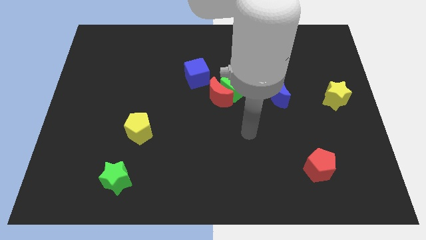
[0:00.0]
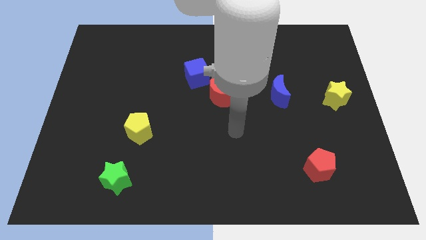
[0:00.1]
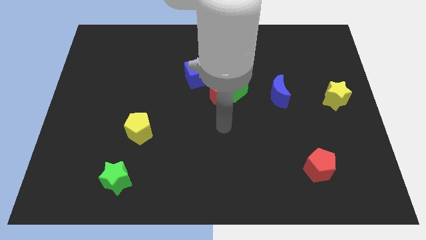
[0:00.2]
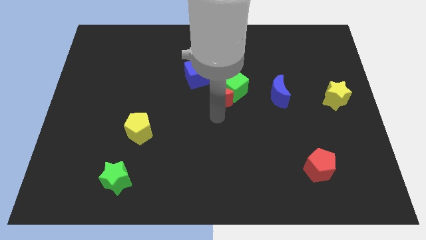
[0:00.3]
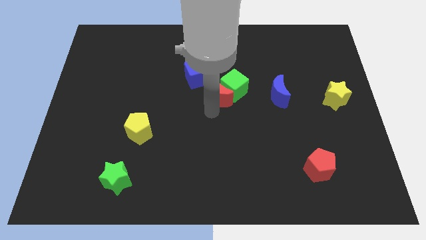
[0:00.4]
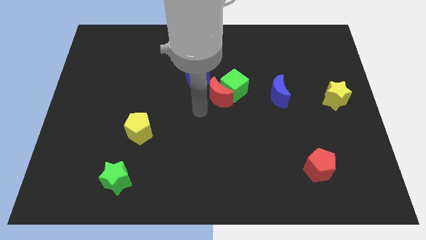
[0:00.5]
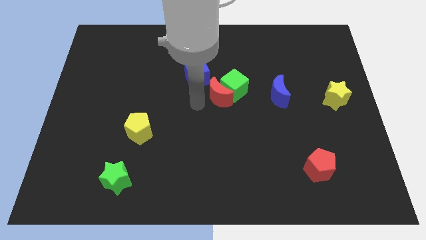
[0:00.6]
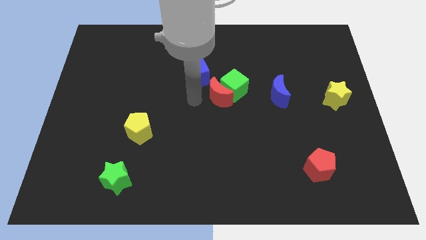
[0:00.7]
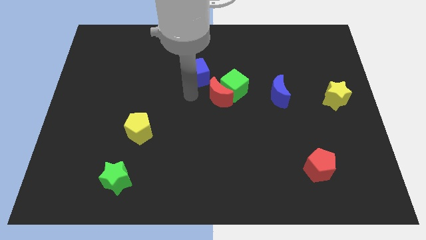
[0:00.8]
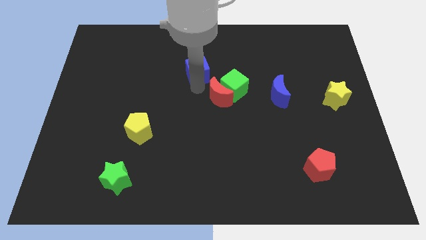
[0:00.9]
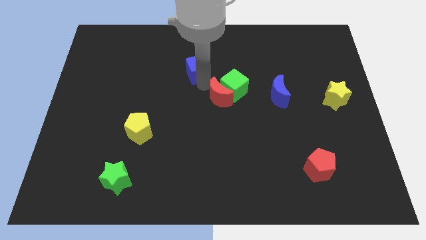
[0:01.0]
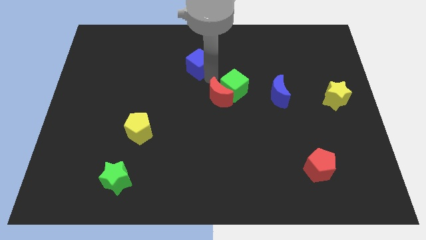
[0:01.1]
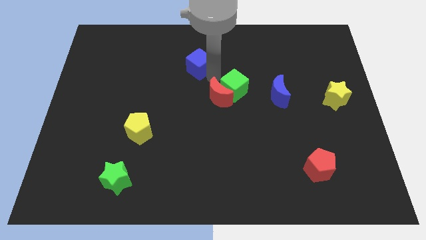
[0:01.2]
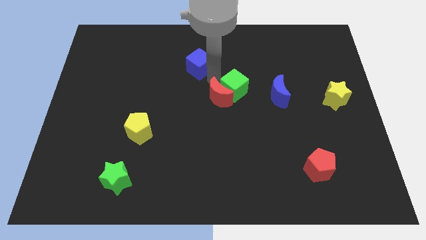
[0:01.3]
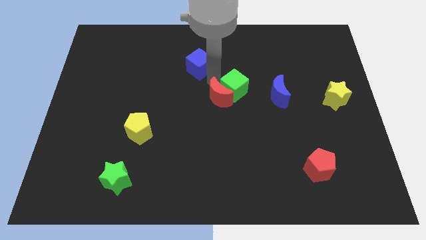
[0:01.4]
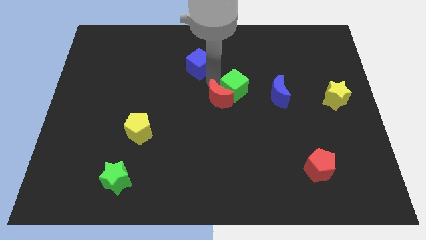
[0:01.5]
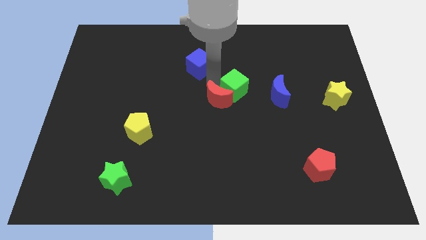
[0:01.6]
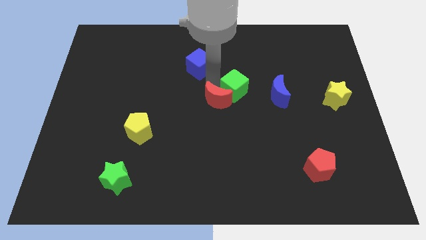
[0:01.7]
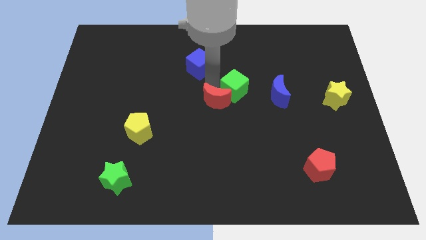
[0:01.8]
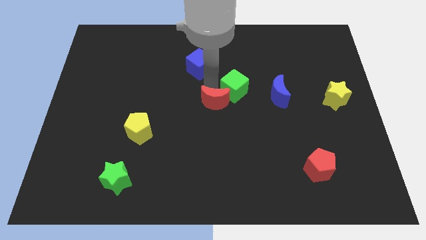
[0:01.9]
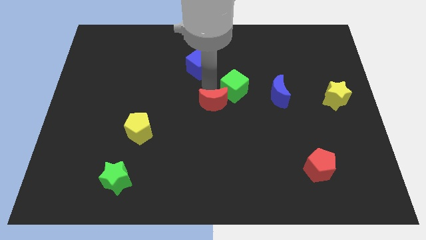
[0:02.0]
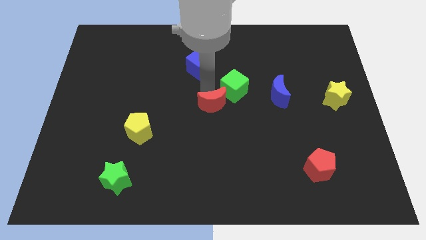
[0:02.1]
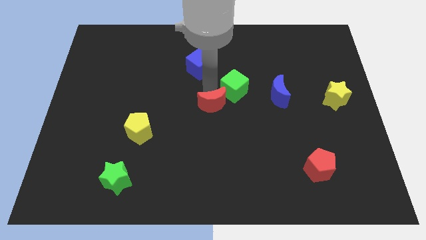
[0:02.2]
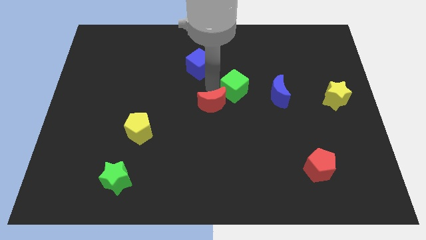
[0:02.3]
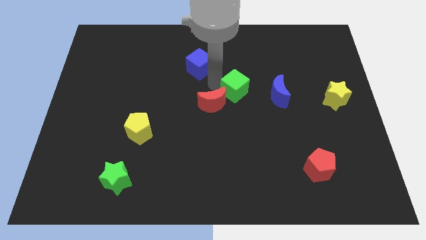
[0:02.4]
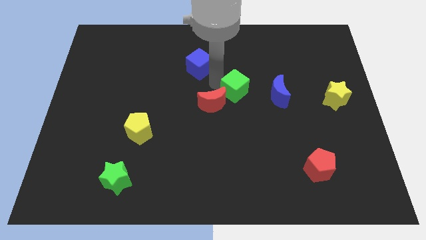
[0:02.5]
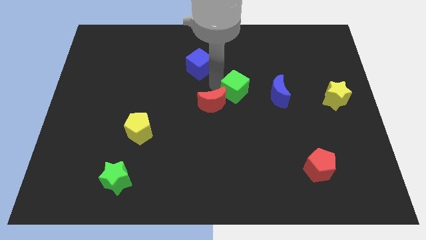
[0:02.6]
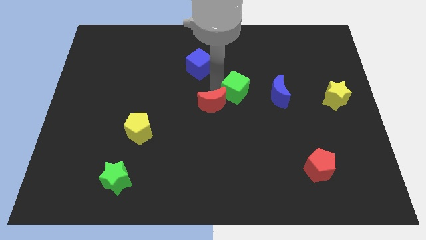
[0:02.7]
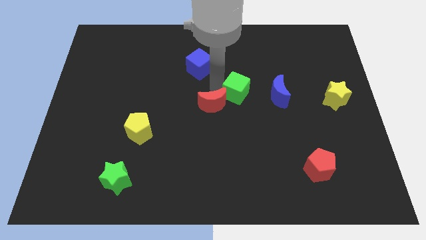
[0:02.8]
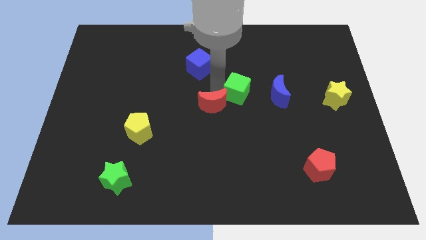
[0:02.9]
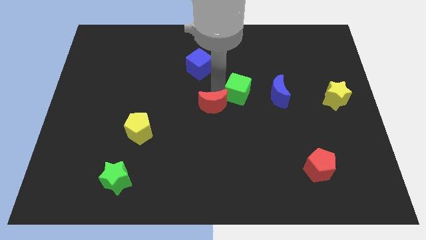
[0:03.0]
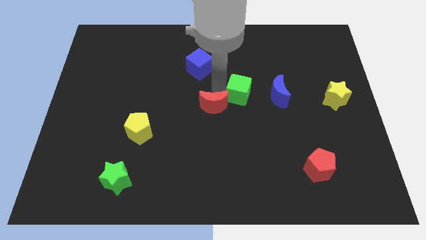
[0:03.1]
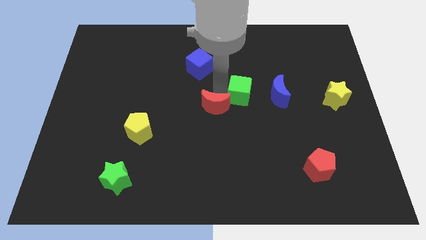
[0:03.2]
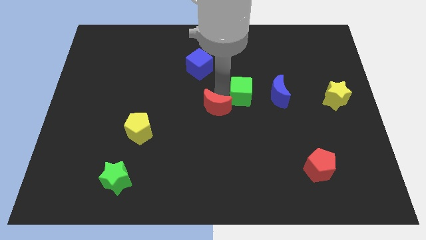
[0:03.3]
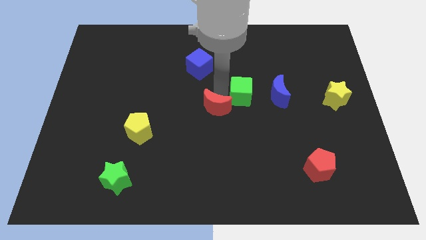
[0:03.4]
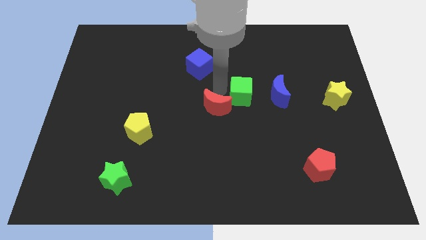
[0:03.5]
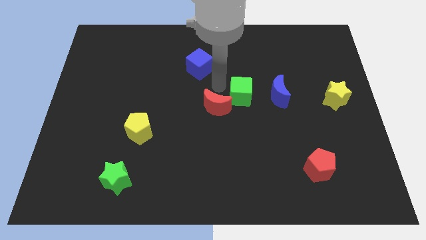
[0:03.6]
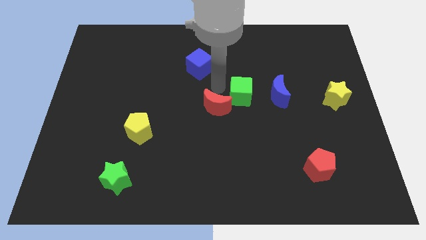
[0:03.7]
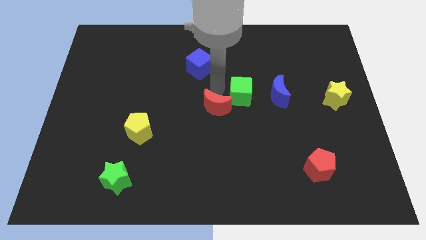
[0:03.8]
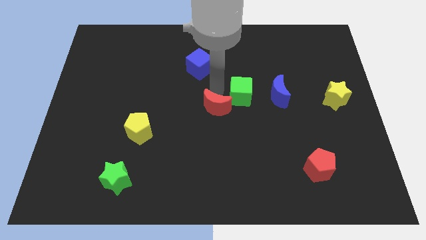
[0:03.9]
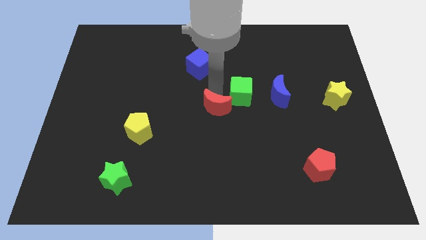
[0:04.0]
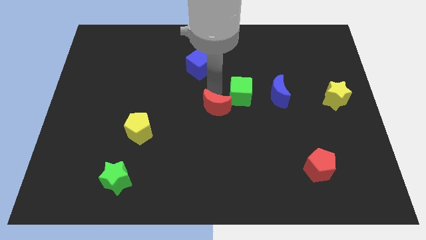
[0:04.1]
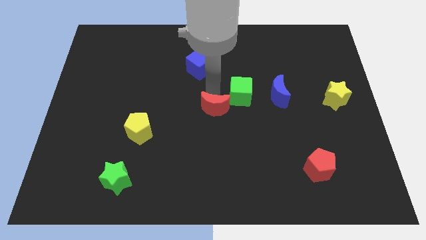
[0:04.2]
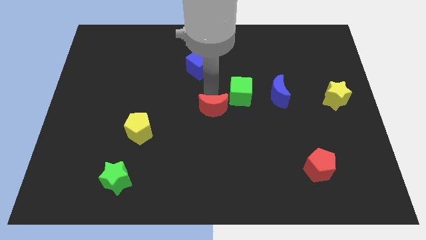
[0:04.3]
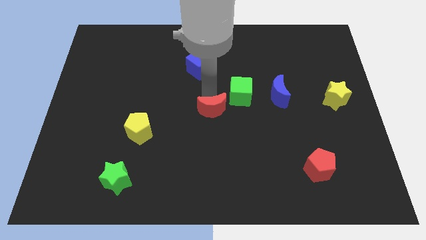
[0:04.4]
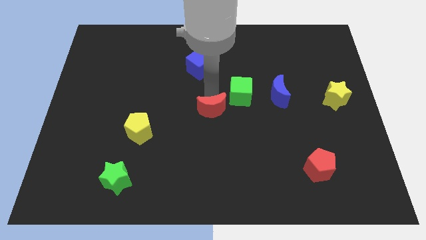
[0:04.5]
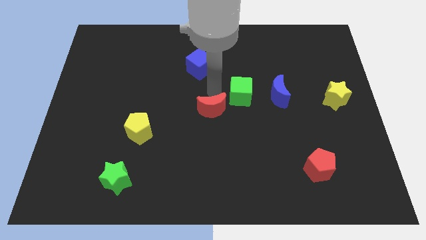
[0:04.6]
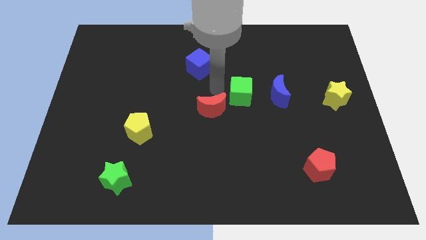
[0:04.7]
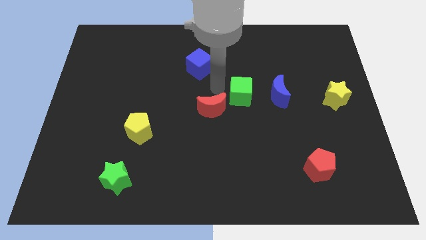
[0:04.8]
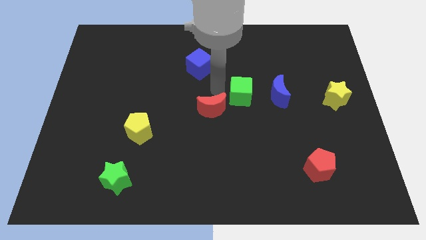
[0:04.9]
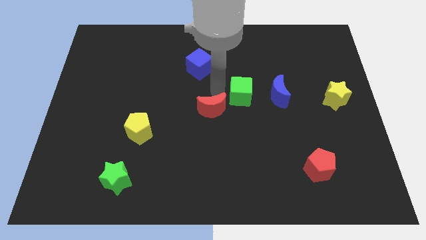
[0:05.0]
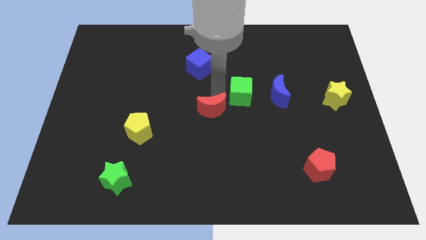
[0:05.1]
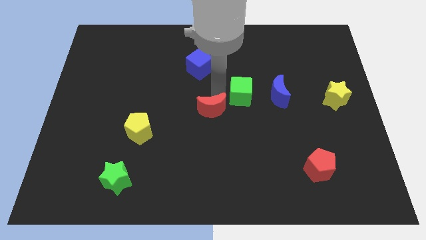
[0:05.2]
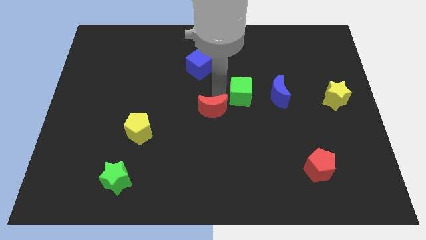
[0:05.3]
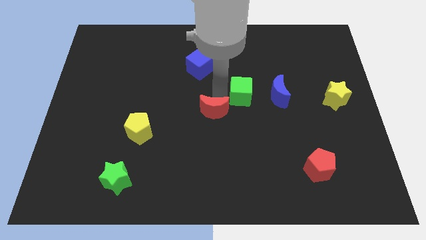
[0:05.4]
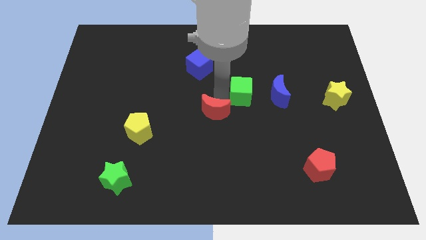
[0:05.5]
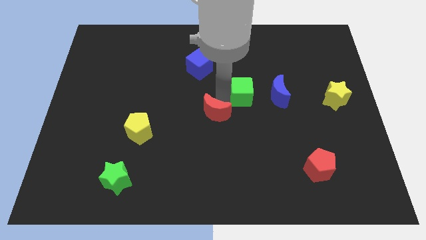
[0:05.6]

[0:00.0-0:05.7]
separate the red moon from the green cube and blue cube

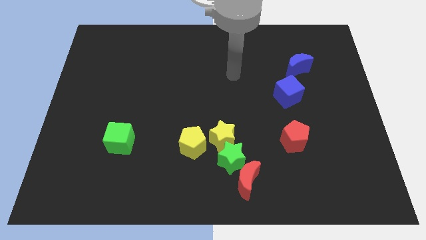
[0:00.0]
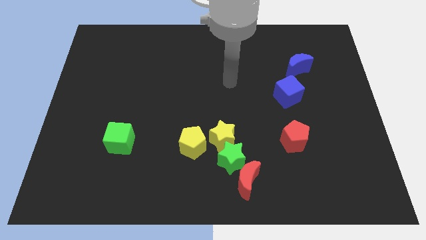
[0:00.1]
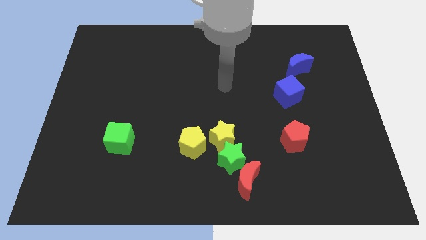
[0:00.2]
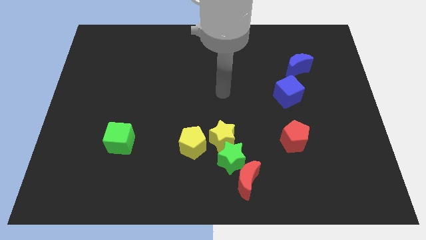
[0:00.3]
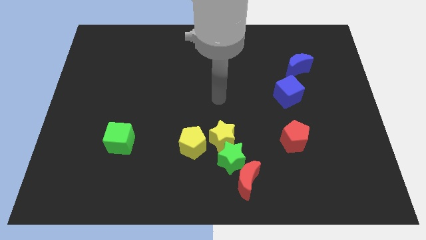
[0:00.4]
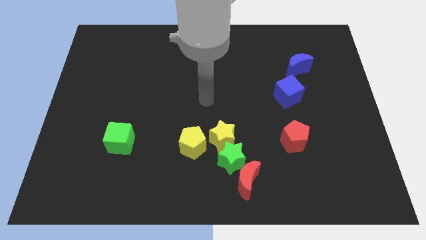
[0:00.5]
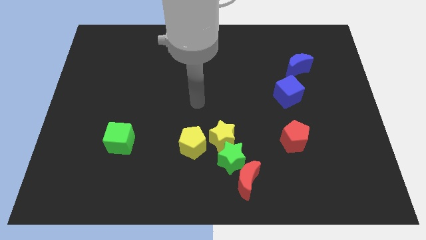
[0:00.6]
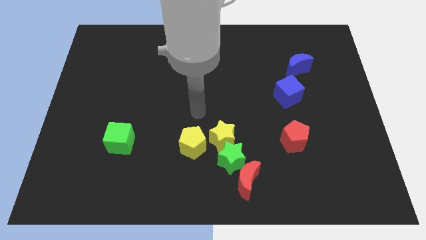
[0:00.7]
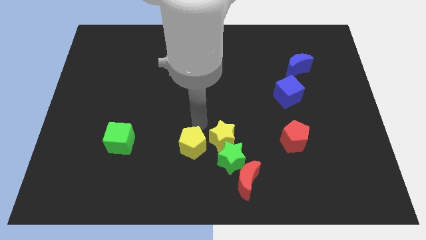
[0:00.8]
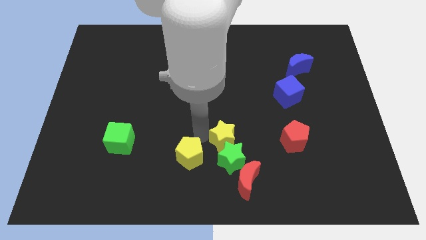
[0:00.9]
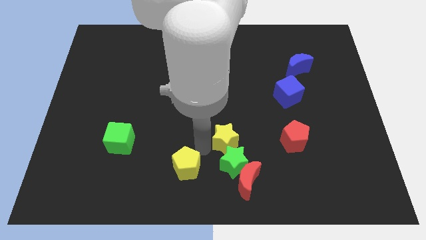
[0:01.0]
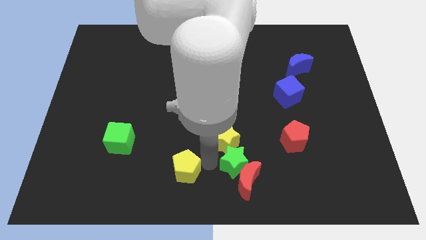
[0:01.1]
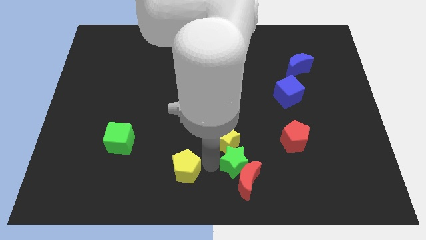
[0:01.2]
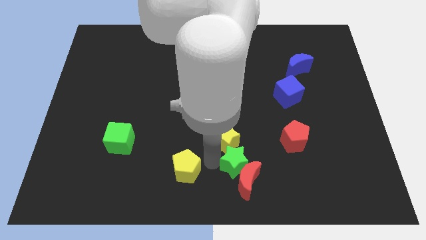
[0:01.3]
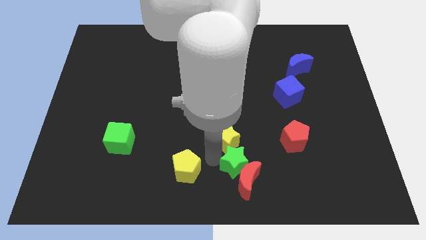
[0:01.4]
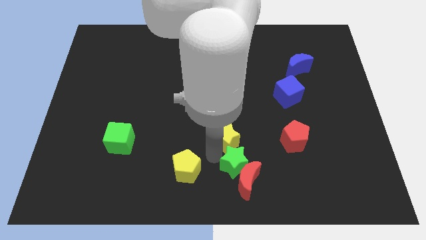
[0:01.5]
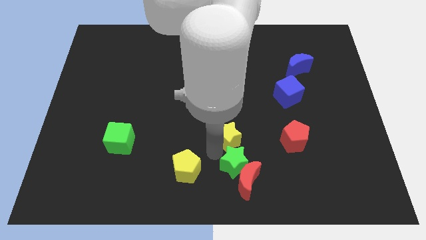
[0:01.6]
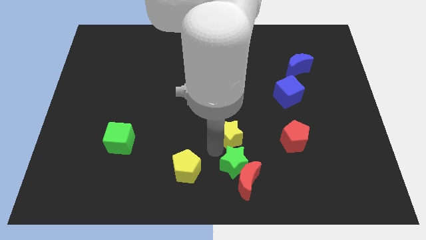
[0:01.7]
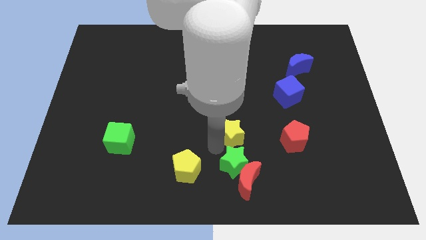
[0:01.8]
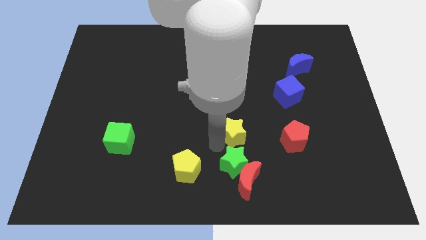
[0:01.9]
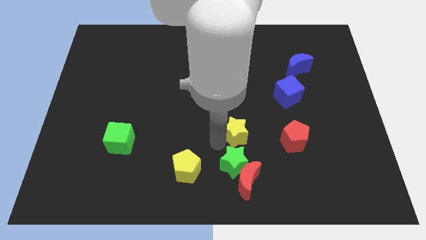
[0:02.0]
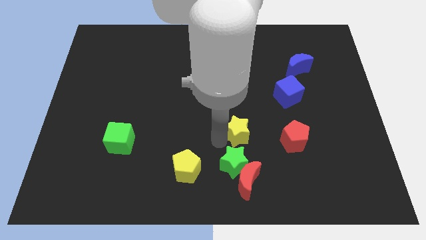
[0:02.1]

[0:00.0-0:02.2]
pull the yellow star apart from the green star and yellow pentagon

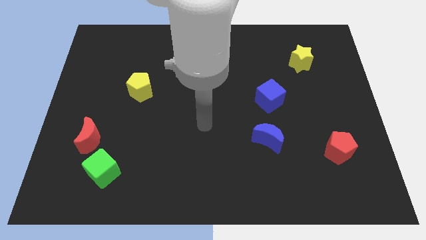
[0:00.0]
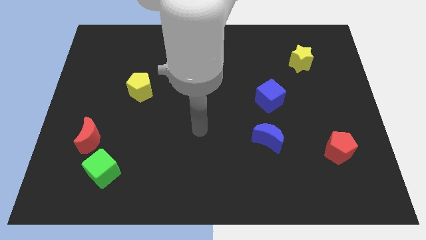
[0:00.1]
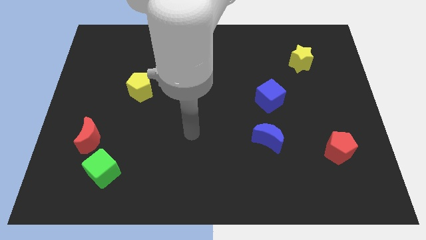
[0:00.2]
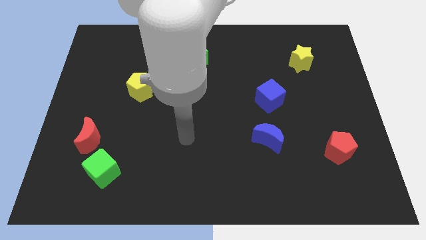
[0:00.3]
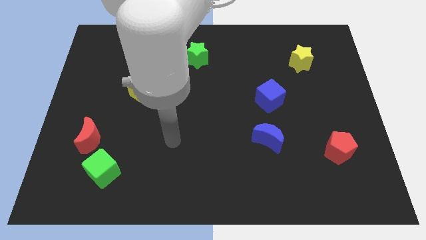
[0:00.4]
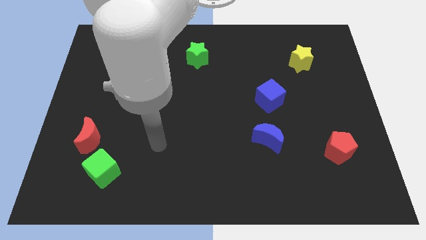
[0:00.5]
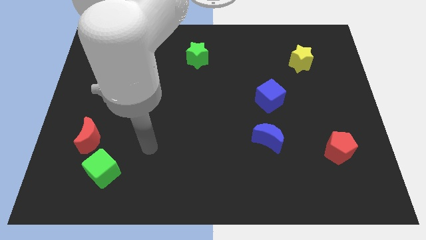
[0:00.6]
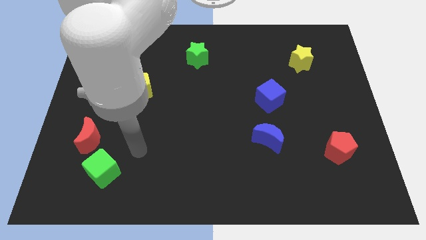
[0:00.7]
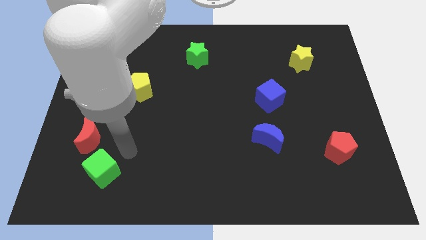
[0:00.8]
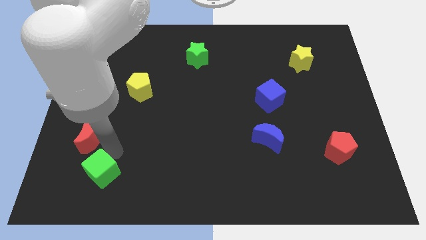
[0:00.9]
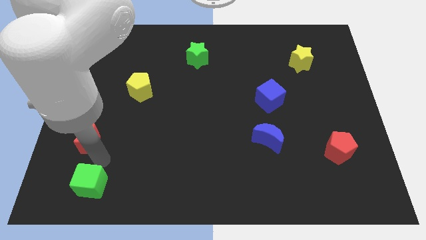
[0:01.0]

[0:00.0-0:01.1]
move the red moon away from the green cube

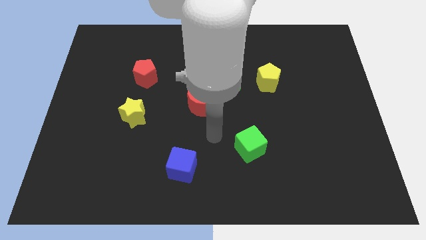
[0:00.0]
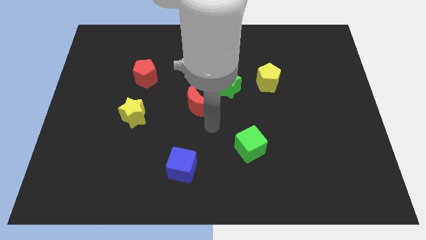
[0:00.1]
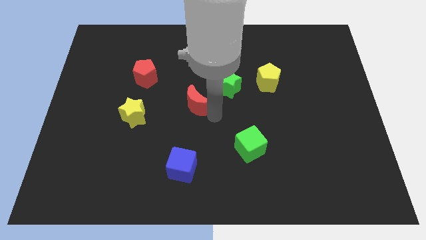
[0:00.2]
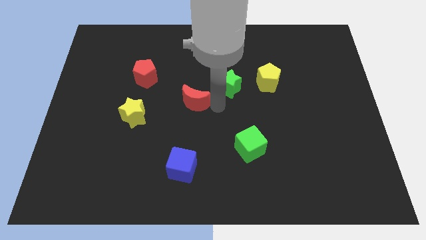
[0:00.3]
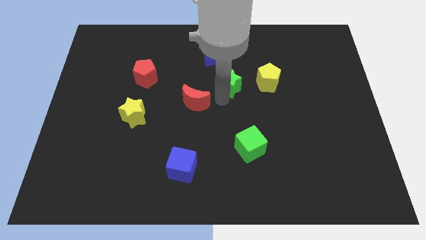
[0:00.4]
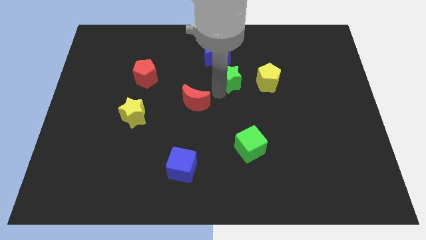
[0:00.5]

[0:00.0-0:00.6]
separate the red moon from the green star
